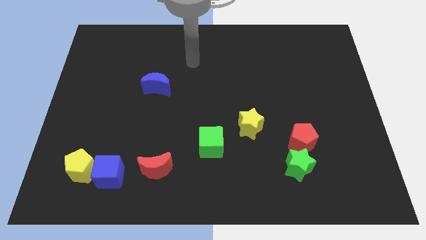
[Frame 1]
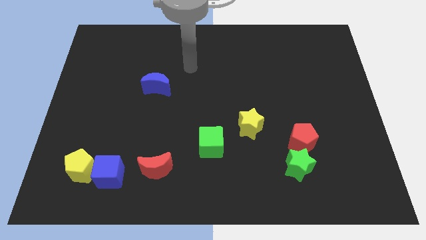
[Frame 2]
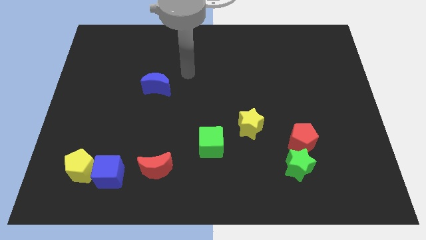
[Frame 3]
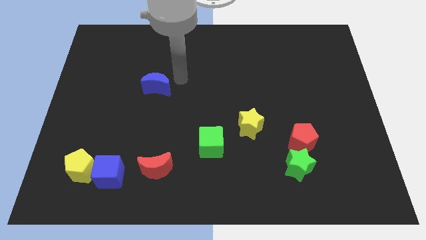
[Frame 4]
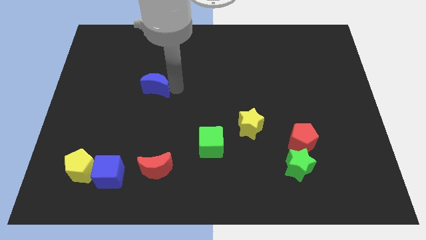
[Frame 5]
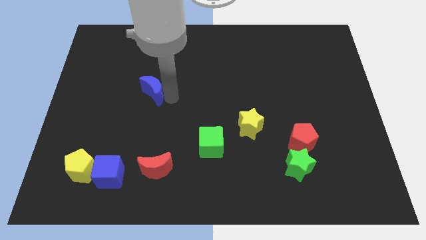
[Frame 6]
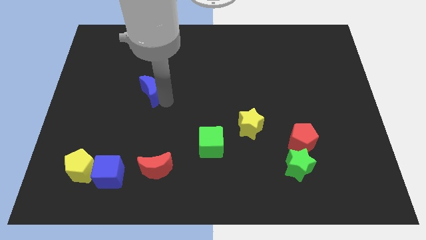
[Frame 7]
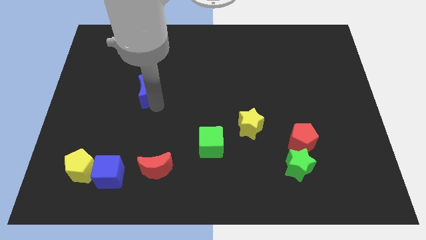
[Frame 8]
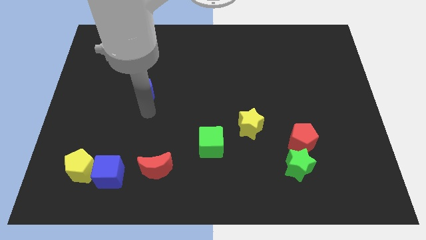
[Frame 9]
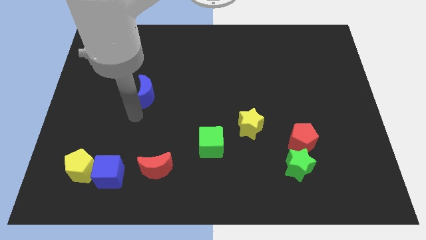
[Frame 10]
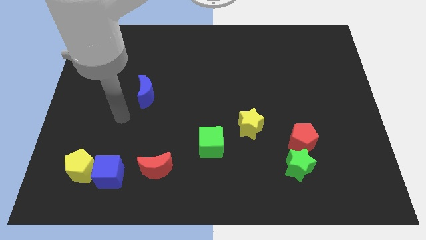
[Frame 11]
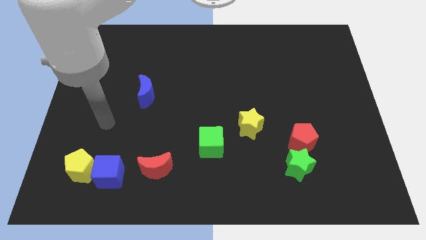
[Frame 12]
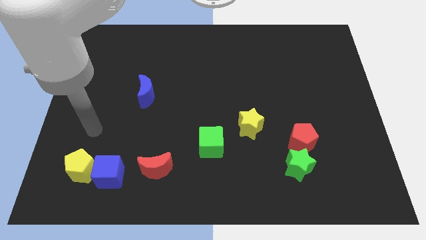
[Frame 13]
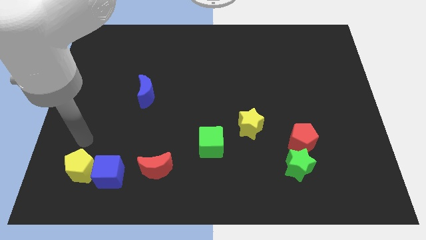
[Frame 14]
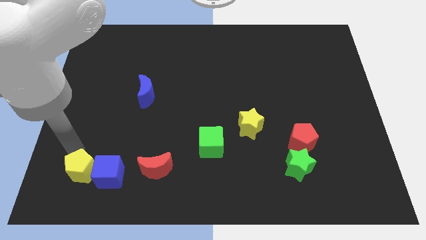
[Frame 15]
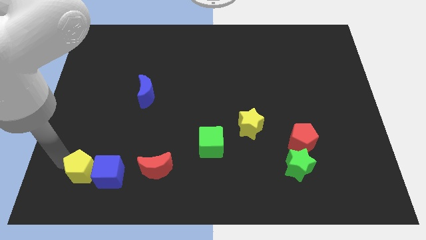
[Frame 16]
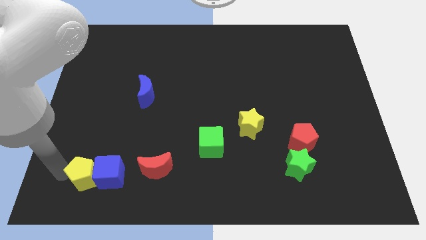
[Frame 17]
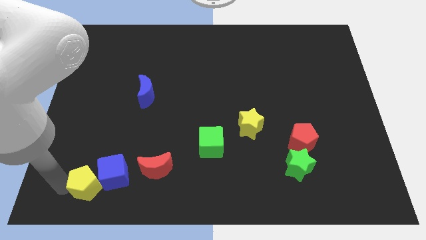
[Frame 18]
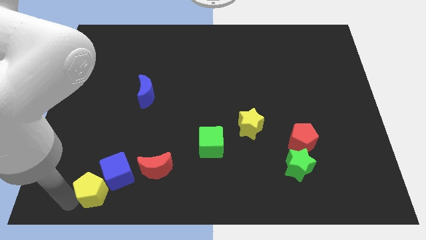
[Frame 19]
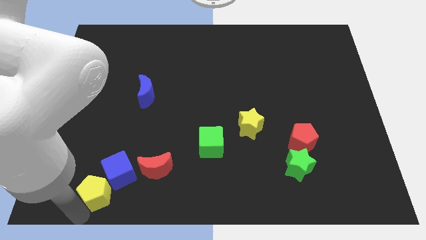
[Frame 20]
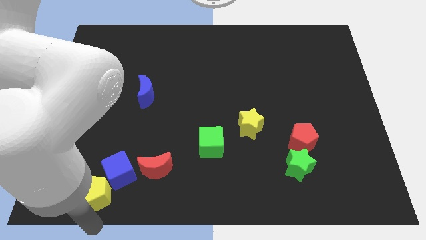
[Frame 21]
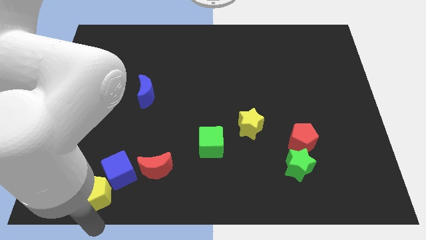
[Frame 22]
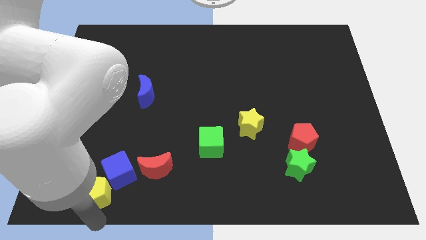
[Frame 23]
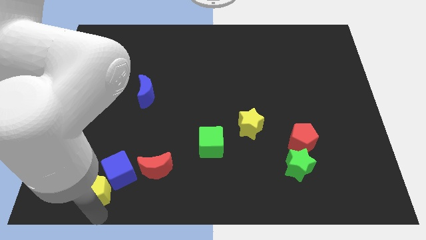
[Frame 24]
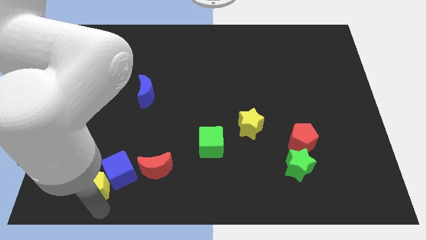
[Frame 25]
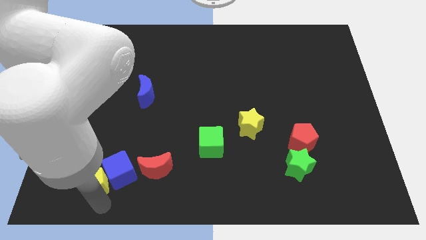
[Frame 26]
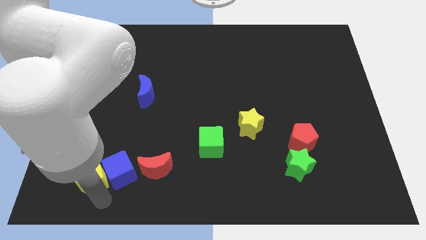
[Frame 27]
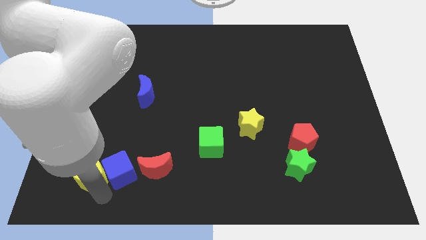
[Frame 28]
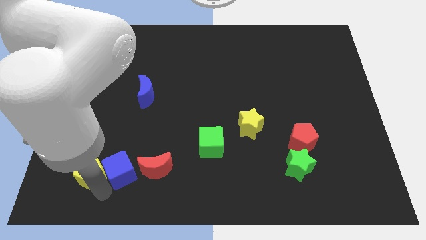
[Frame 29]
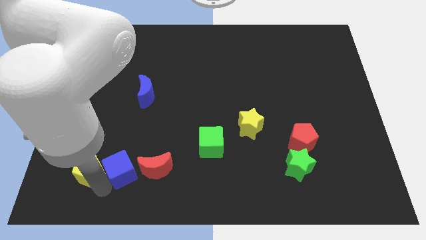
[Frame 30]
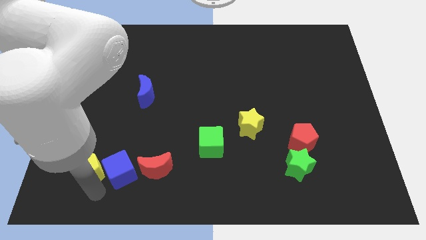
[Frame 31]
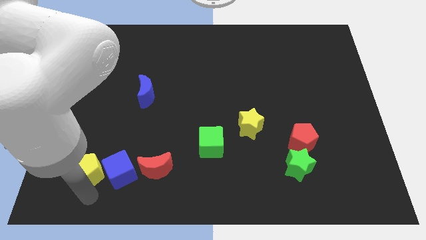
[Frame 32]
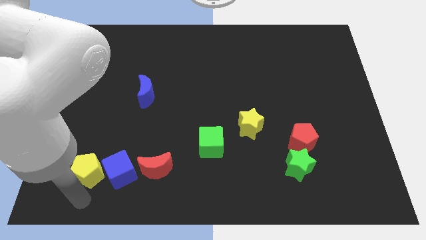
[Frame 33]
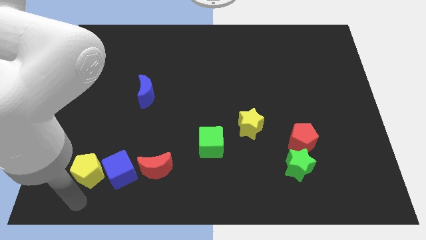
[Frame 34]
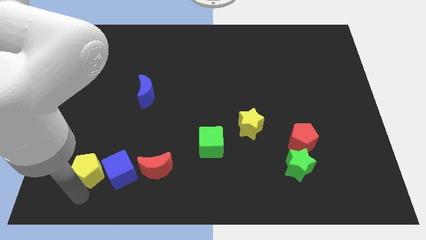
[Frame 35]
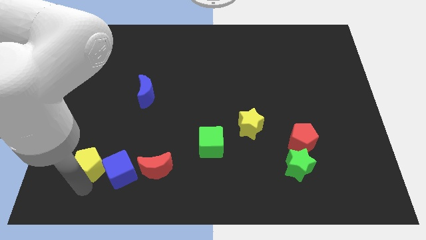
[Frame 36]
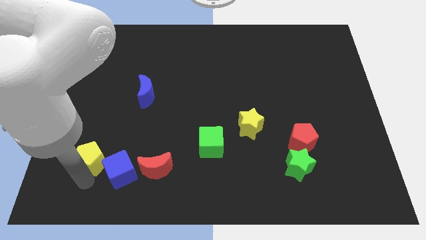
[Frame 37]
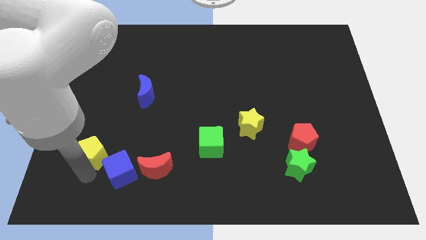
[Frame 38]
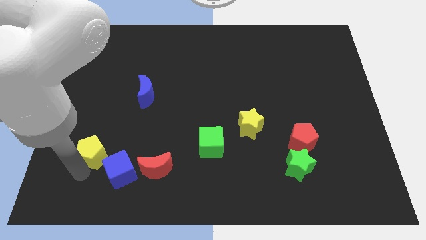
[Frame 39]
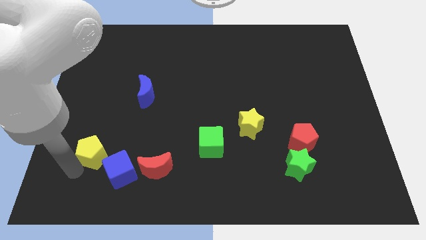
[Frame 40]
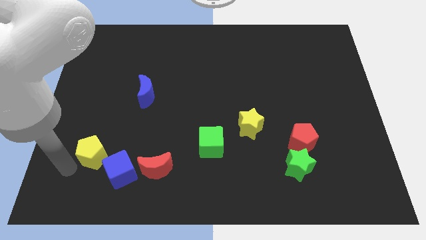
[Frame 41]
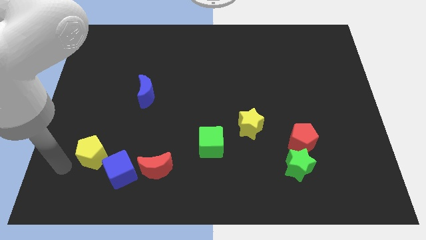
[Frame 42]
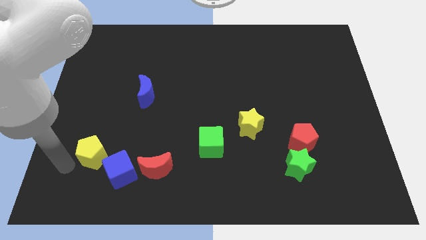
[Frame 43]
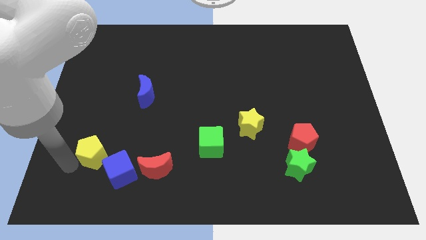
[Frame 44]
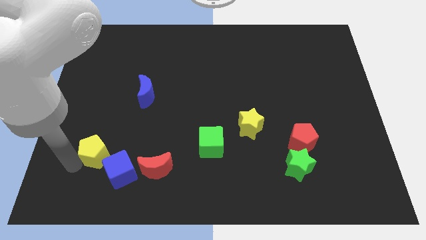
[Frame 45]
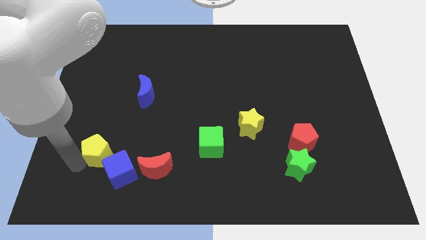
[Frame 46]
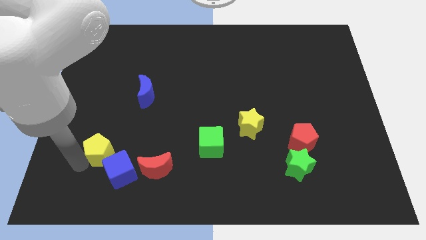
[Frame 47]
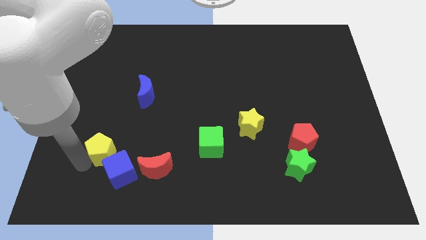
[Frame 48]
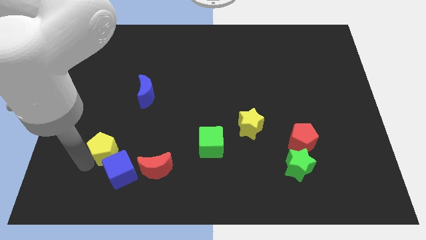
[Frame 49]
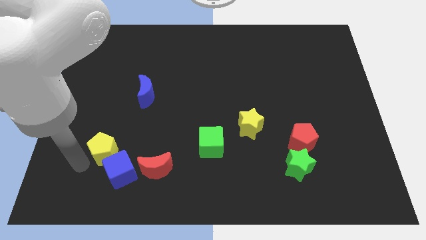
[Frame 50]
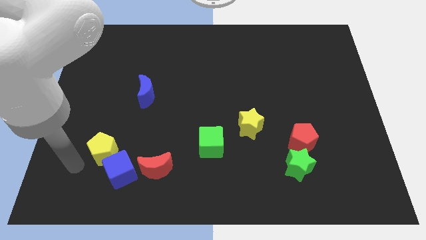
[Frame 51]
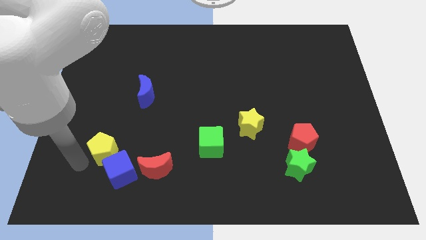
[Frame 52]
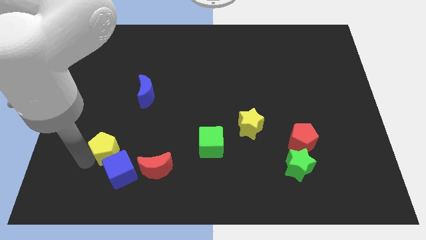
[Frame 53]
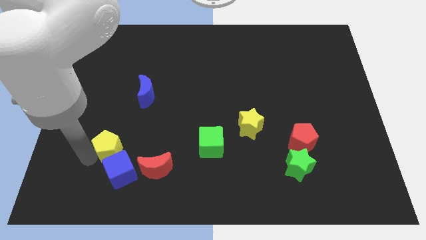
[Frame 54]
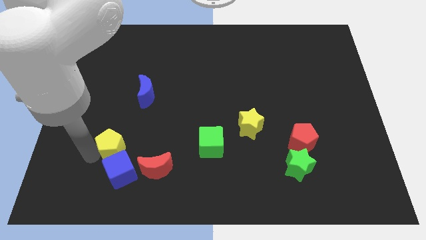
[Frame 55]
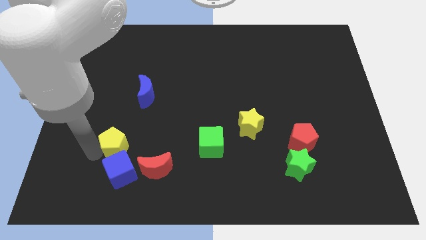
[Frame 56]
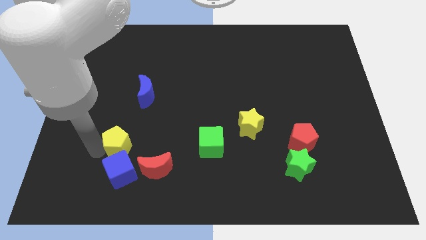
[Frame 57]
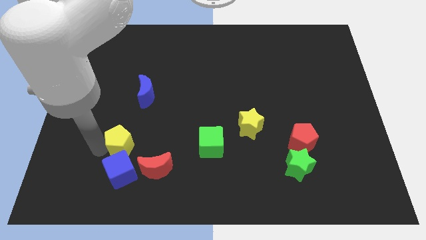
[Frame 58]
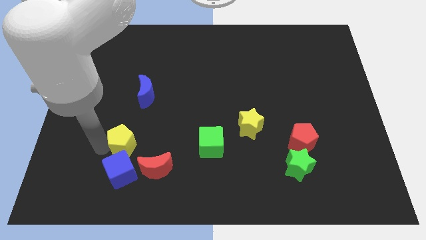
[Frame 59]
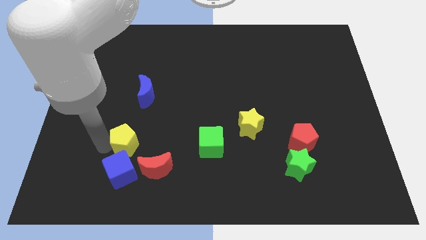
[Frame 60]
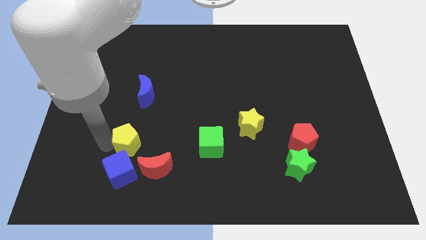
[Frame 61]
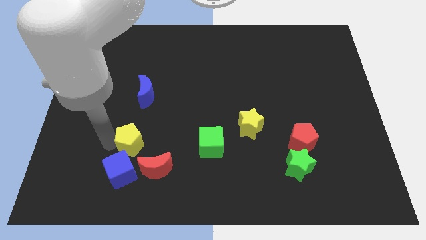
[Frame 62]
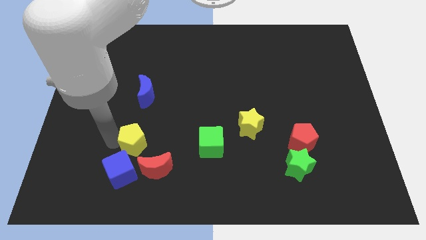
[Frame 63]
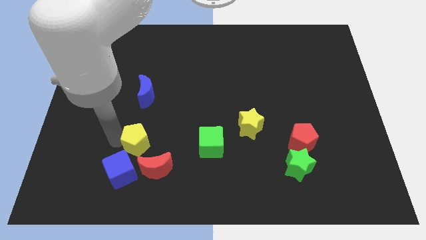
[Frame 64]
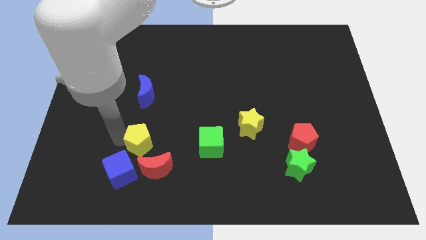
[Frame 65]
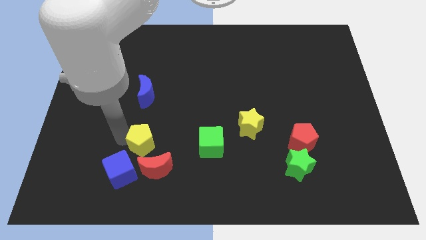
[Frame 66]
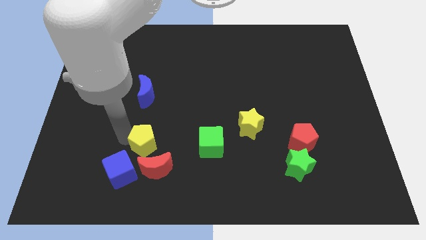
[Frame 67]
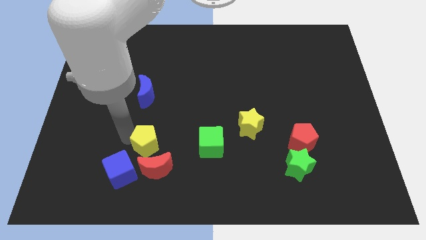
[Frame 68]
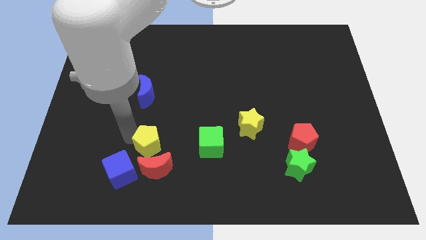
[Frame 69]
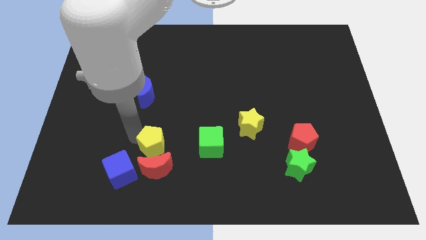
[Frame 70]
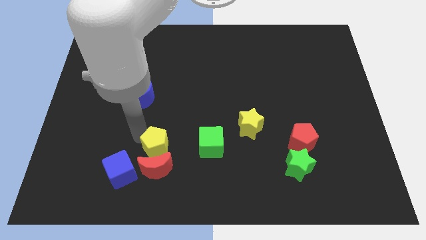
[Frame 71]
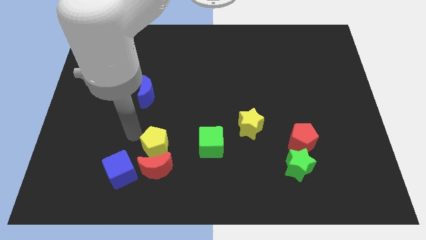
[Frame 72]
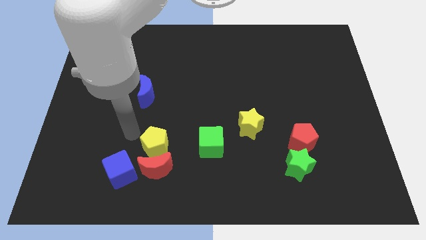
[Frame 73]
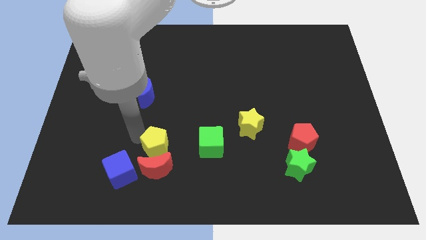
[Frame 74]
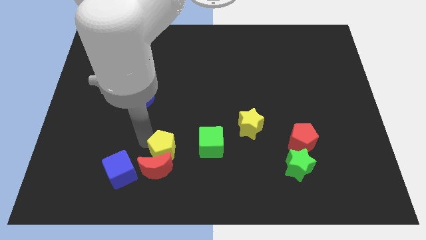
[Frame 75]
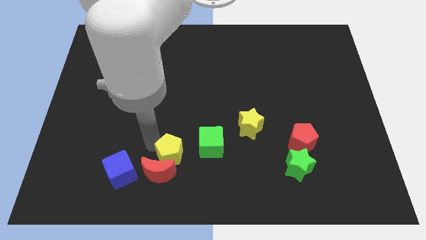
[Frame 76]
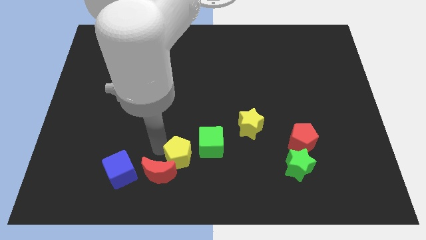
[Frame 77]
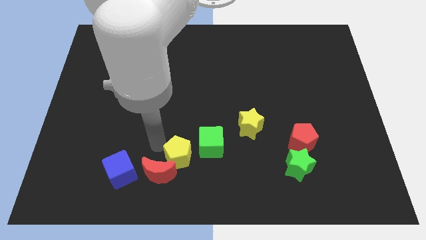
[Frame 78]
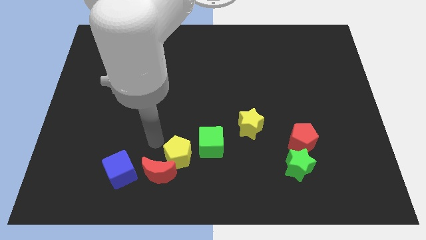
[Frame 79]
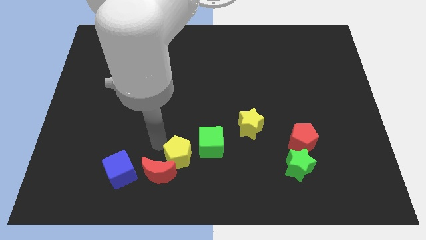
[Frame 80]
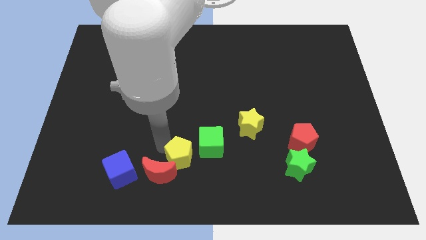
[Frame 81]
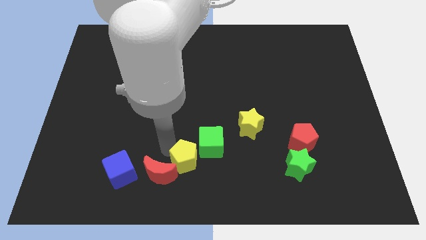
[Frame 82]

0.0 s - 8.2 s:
move the yellow pentagon right

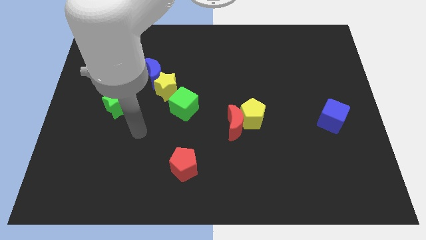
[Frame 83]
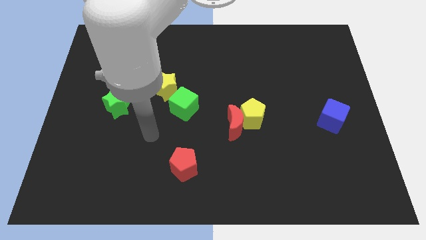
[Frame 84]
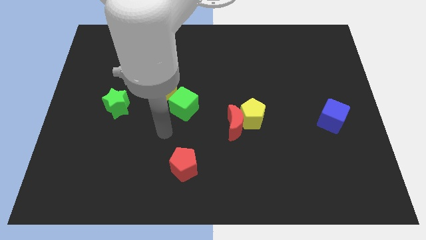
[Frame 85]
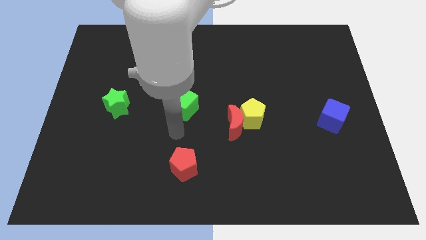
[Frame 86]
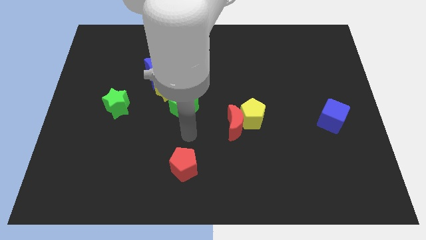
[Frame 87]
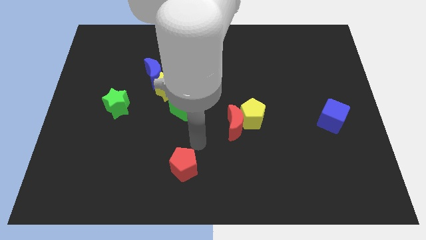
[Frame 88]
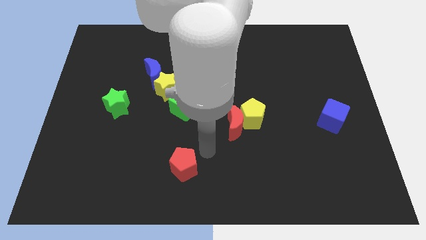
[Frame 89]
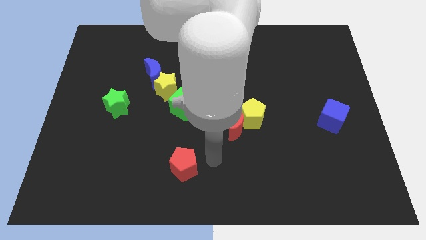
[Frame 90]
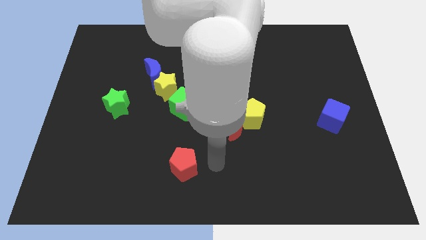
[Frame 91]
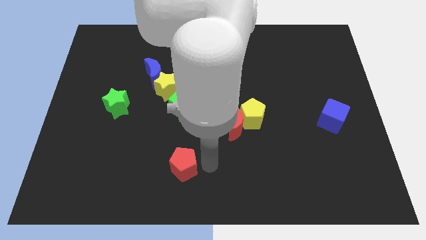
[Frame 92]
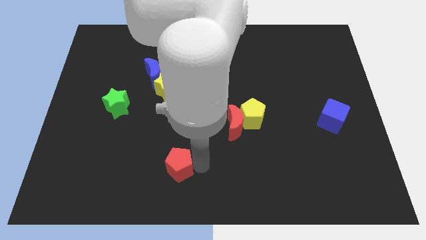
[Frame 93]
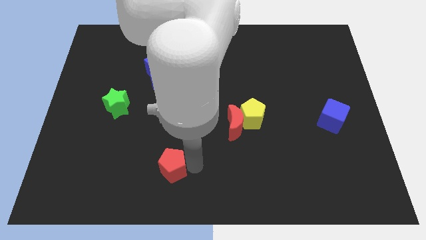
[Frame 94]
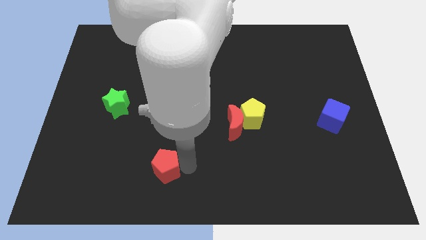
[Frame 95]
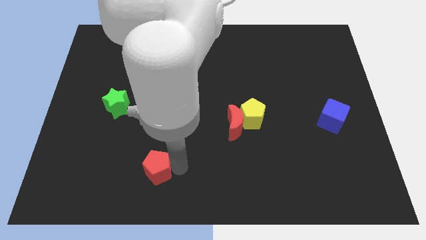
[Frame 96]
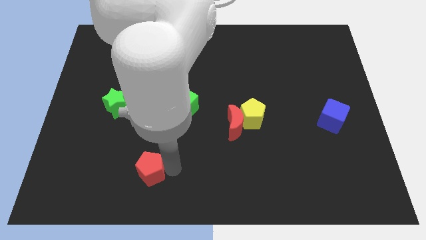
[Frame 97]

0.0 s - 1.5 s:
push the red pentagon left somewhat
